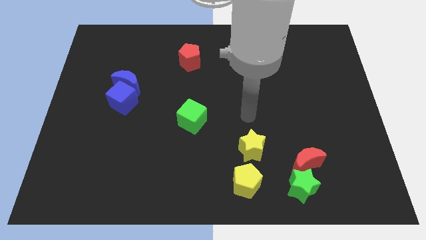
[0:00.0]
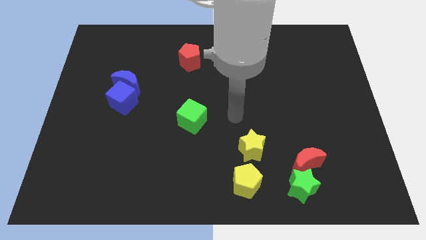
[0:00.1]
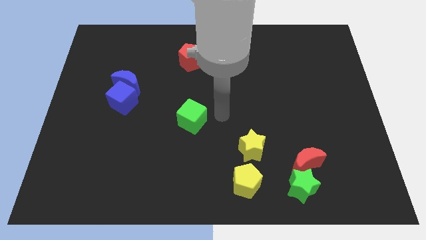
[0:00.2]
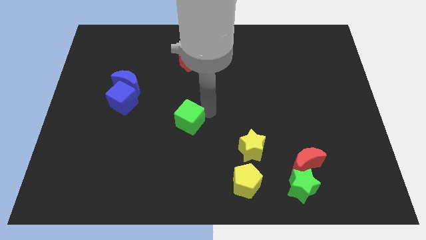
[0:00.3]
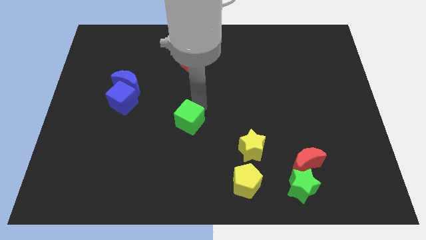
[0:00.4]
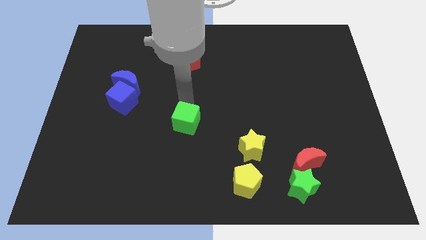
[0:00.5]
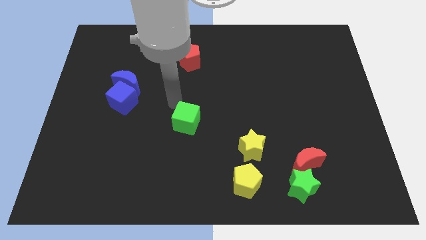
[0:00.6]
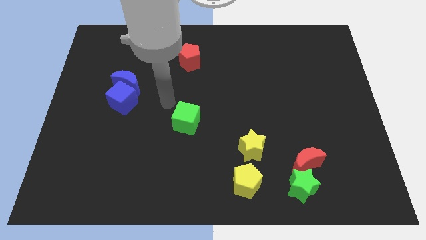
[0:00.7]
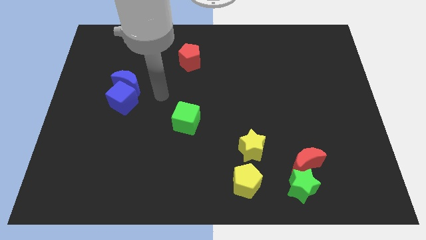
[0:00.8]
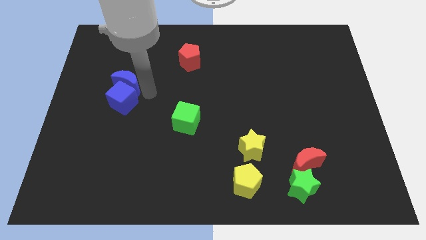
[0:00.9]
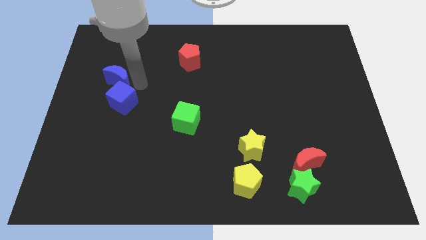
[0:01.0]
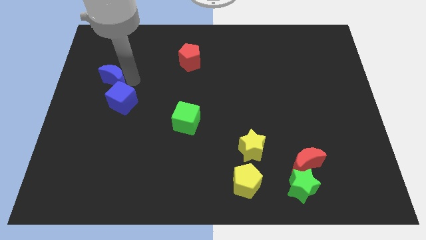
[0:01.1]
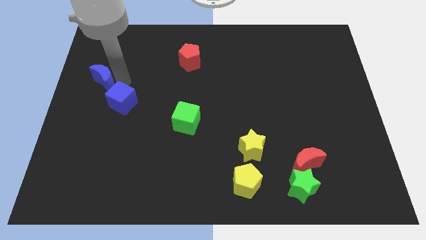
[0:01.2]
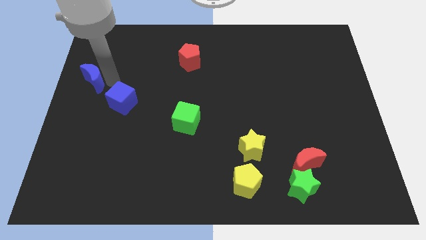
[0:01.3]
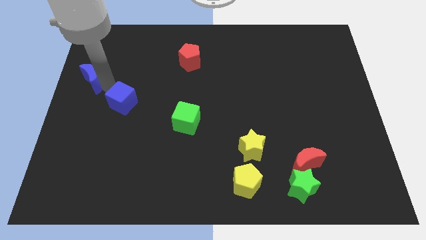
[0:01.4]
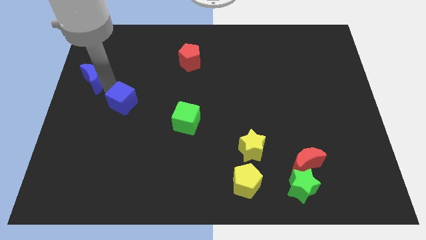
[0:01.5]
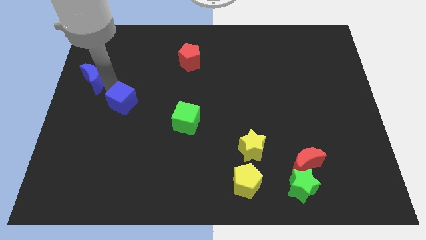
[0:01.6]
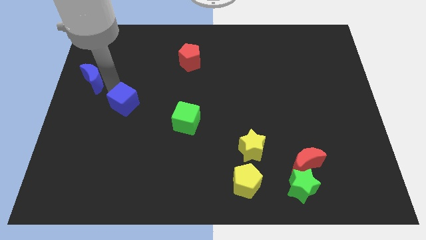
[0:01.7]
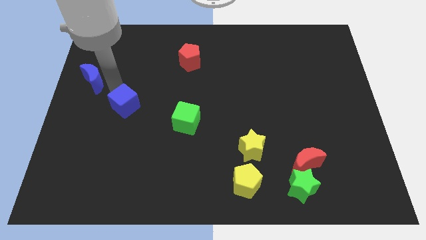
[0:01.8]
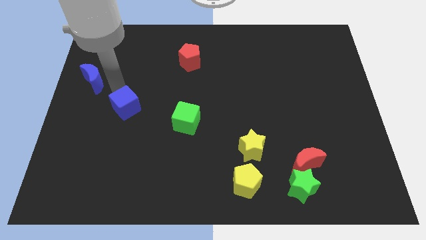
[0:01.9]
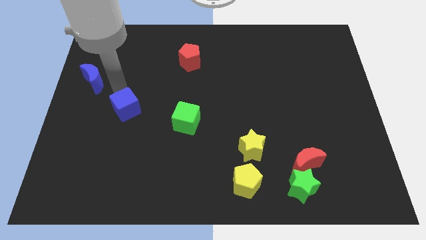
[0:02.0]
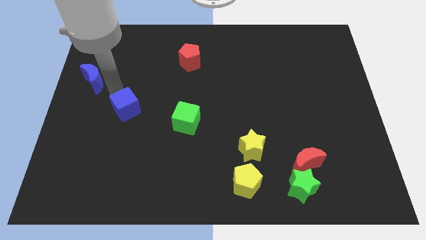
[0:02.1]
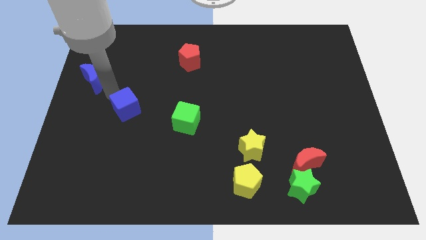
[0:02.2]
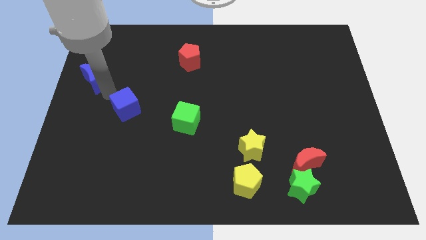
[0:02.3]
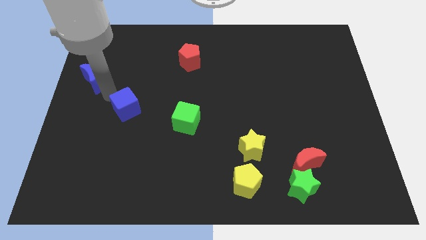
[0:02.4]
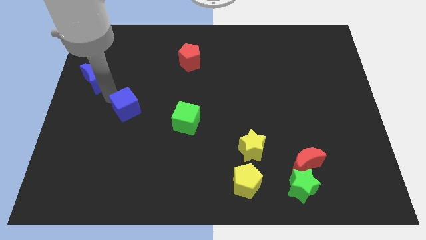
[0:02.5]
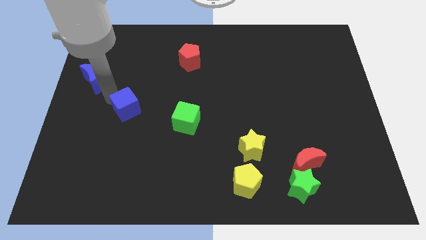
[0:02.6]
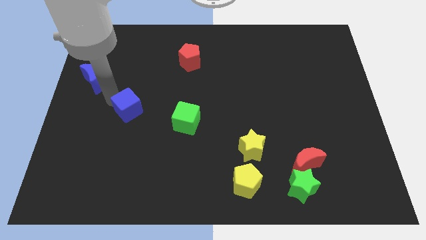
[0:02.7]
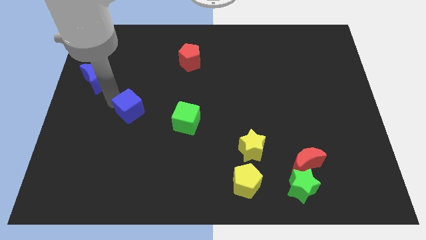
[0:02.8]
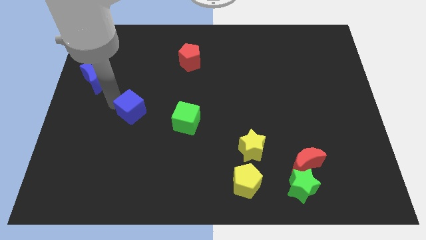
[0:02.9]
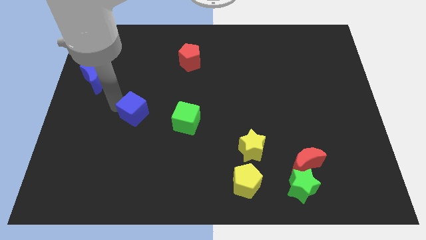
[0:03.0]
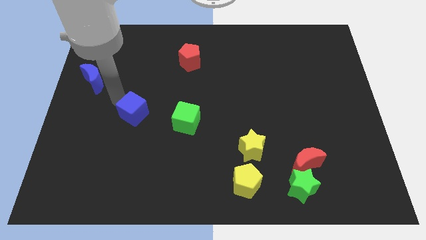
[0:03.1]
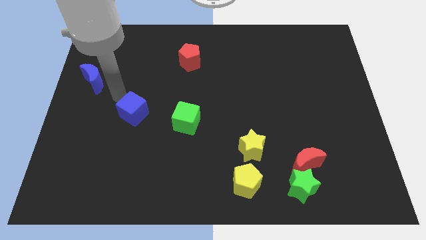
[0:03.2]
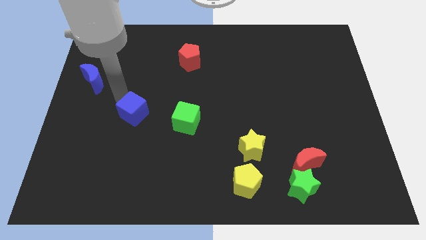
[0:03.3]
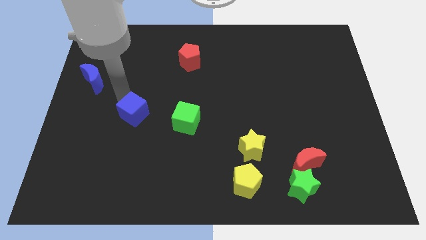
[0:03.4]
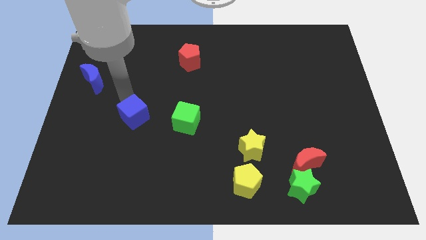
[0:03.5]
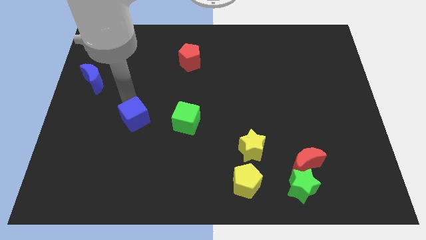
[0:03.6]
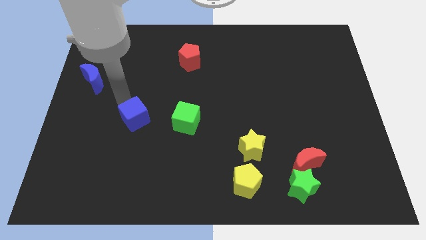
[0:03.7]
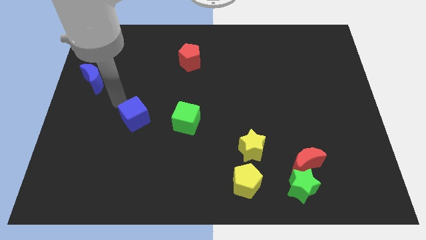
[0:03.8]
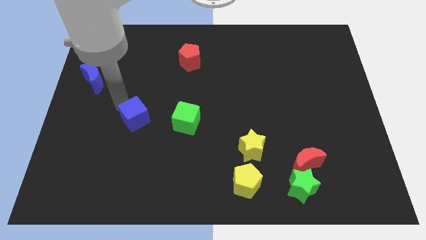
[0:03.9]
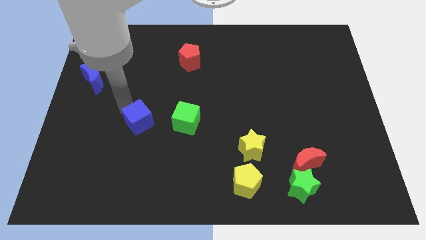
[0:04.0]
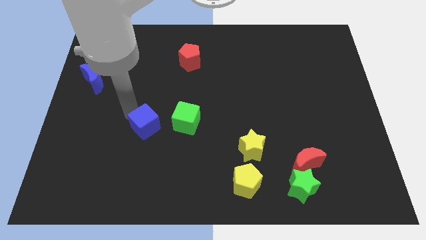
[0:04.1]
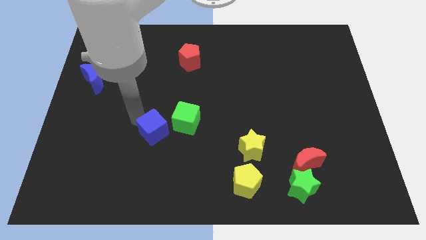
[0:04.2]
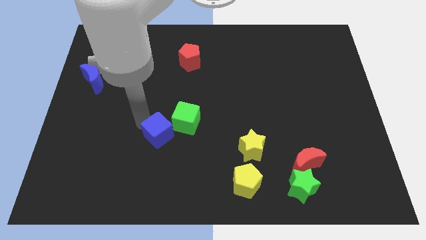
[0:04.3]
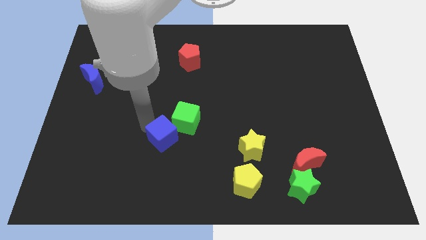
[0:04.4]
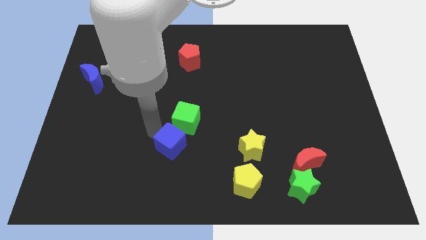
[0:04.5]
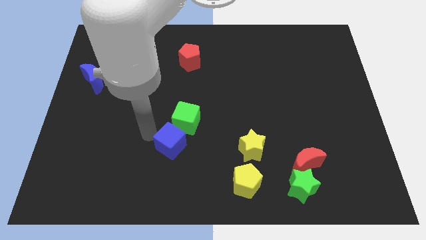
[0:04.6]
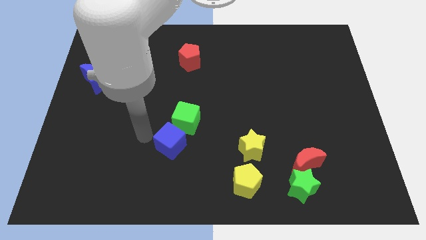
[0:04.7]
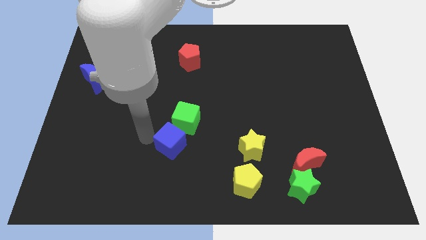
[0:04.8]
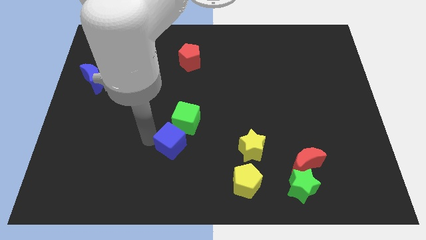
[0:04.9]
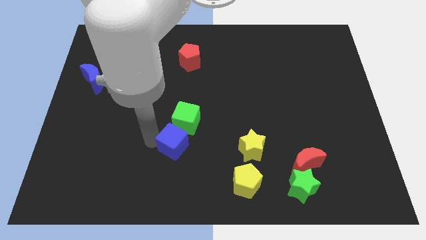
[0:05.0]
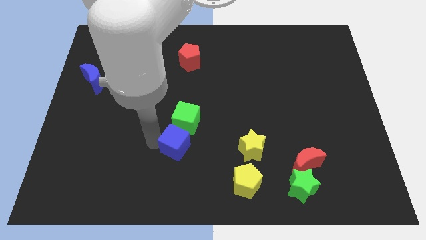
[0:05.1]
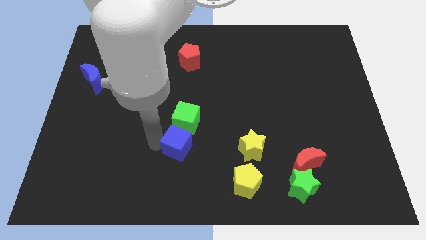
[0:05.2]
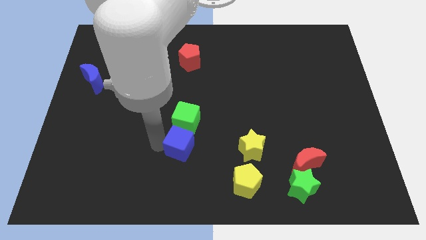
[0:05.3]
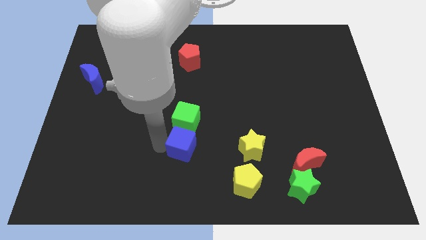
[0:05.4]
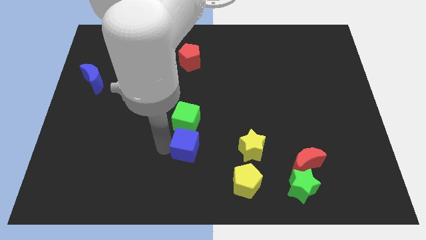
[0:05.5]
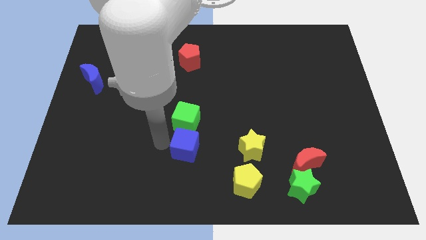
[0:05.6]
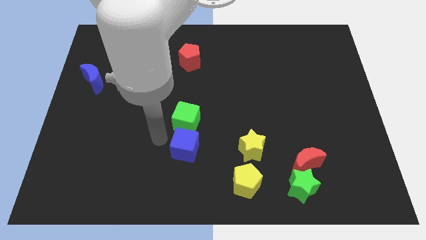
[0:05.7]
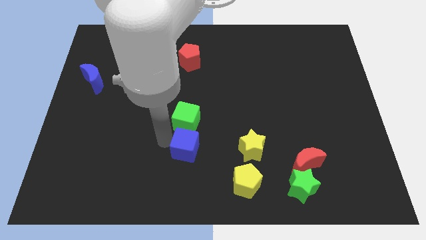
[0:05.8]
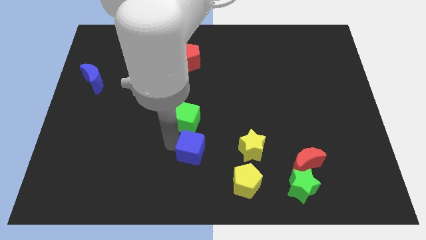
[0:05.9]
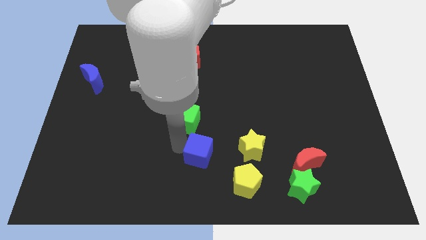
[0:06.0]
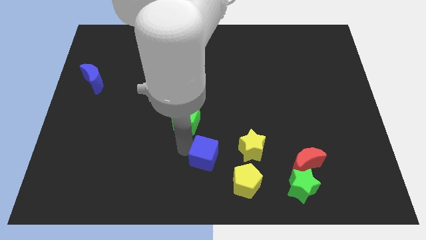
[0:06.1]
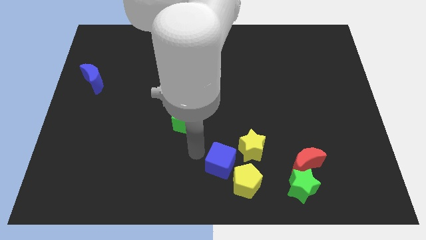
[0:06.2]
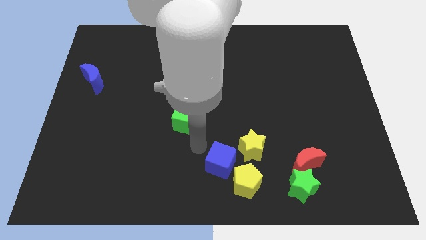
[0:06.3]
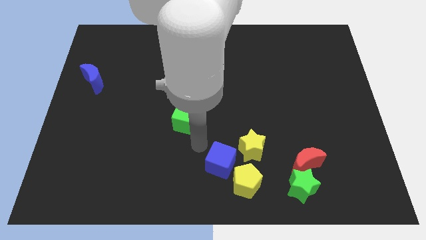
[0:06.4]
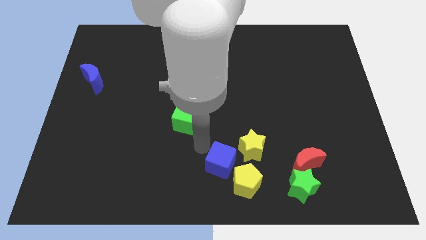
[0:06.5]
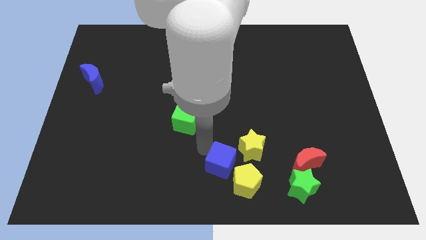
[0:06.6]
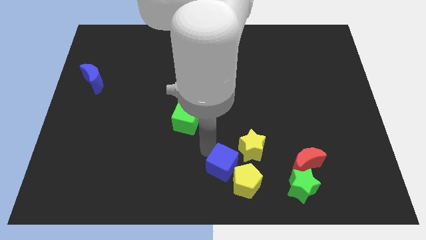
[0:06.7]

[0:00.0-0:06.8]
slide the blue cube next to the yellow pentagon

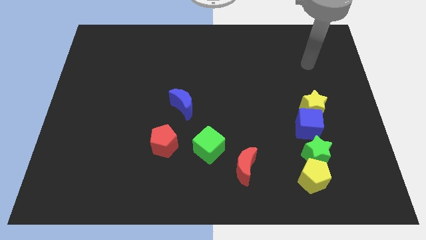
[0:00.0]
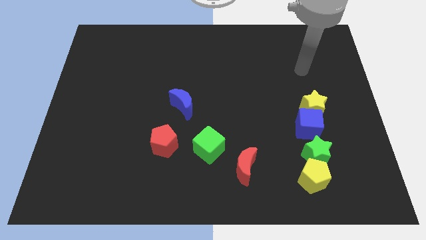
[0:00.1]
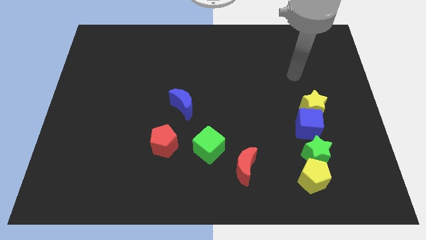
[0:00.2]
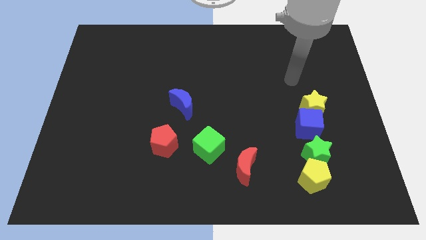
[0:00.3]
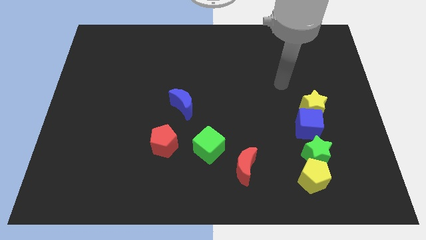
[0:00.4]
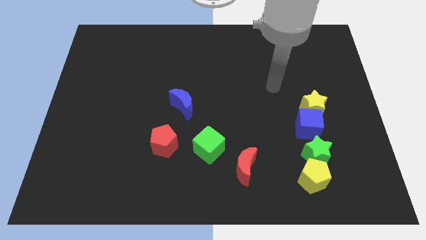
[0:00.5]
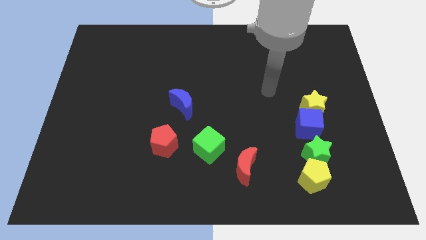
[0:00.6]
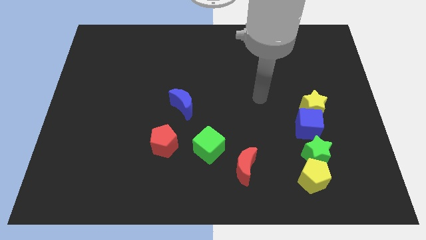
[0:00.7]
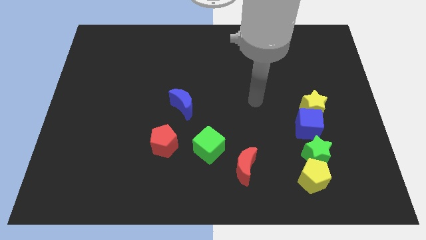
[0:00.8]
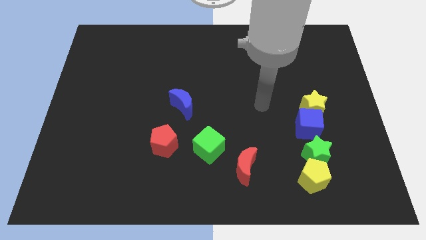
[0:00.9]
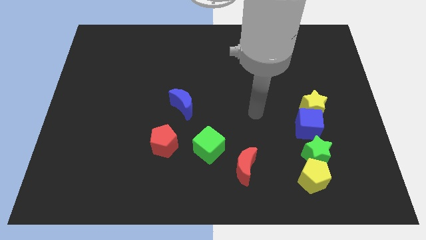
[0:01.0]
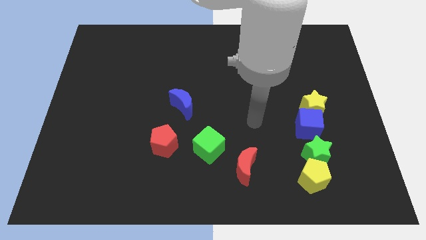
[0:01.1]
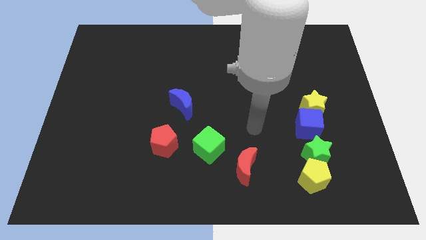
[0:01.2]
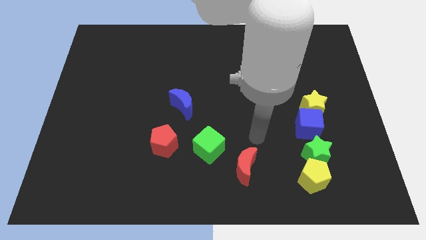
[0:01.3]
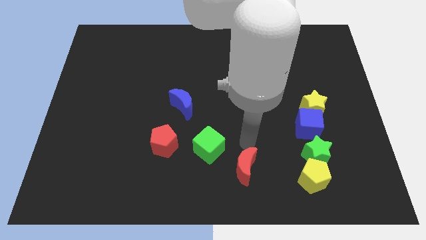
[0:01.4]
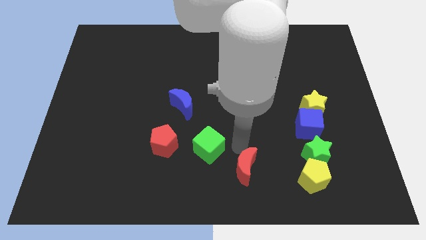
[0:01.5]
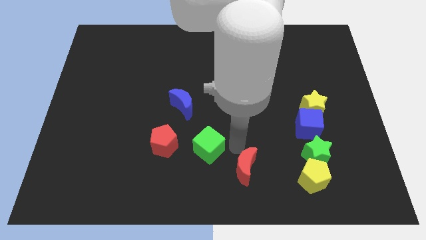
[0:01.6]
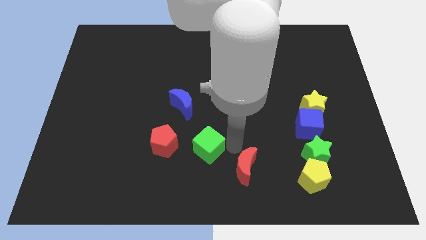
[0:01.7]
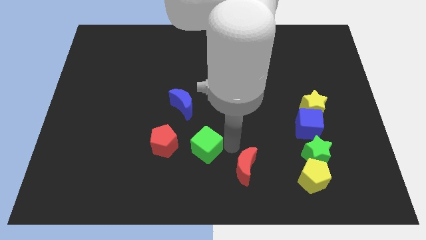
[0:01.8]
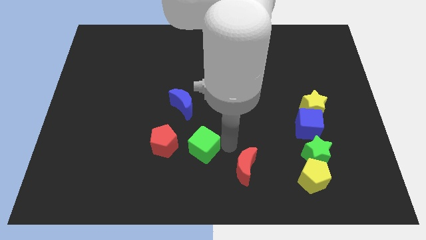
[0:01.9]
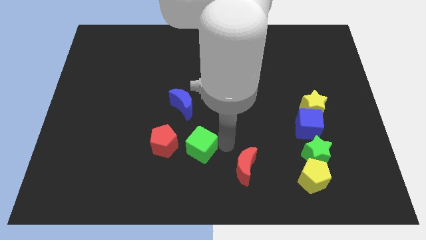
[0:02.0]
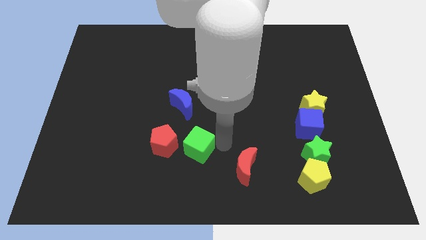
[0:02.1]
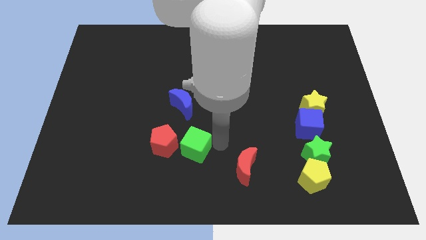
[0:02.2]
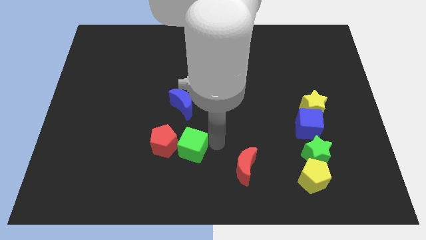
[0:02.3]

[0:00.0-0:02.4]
push the green cube towards the red pentagon
